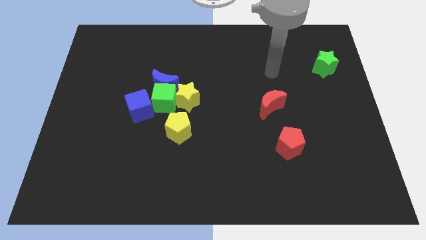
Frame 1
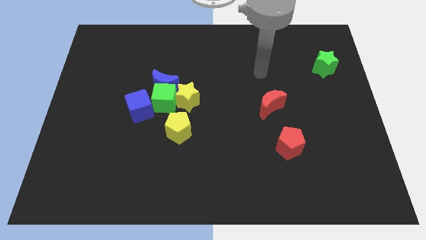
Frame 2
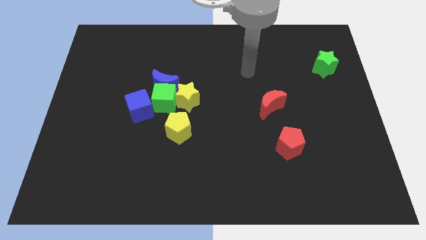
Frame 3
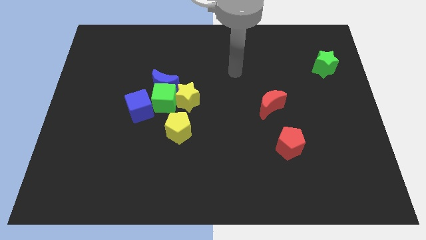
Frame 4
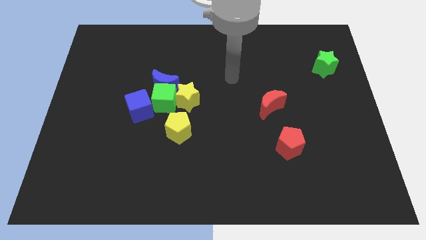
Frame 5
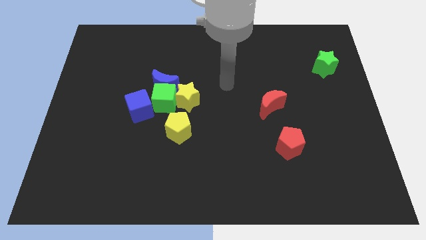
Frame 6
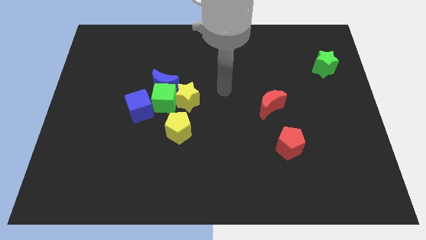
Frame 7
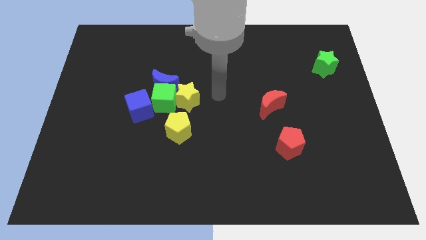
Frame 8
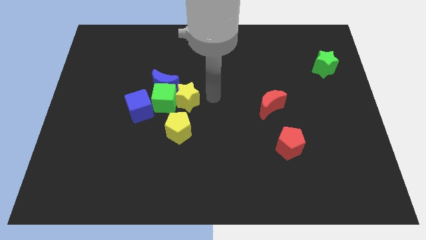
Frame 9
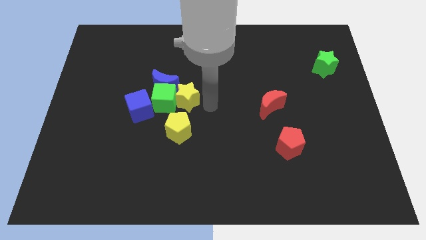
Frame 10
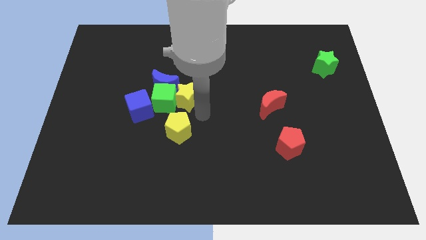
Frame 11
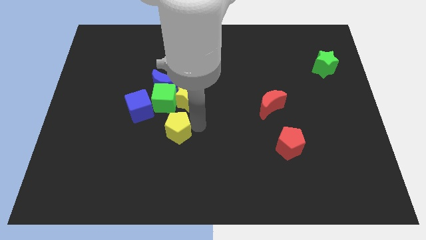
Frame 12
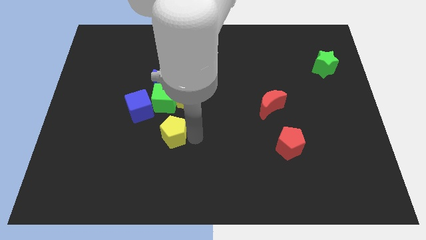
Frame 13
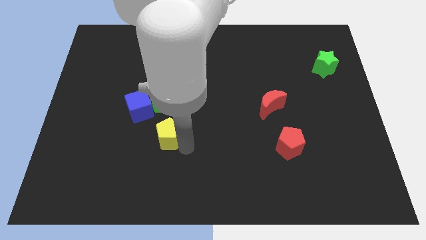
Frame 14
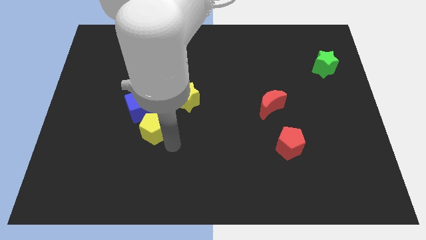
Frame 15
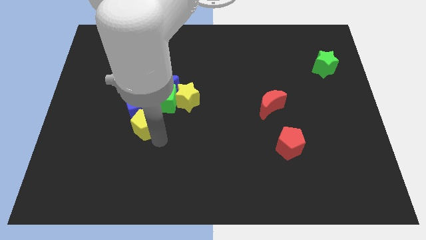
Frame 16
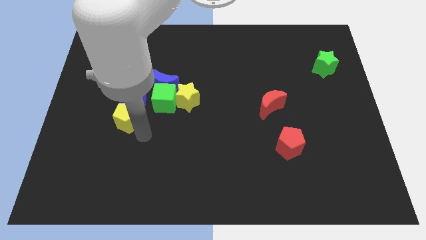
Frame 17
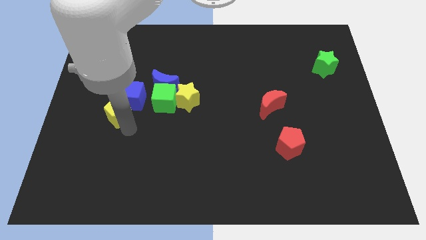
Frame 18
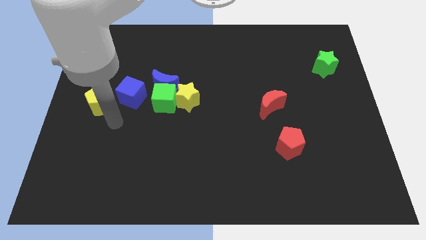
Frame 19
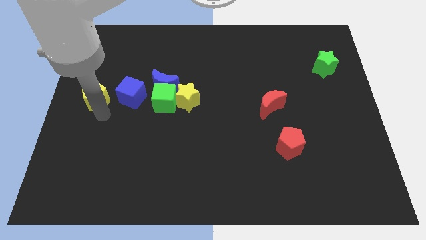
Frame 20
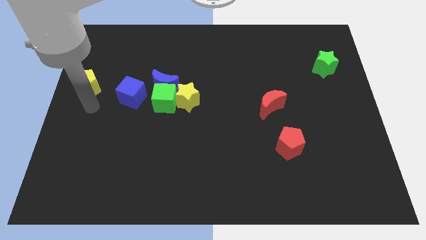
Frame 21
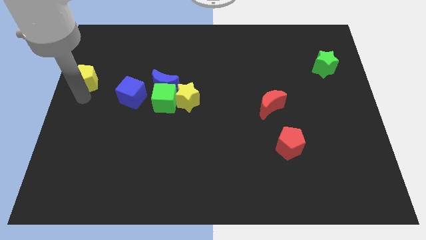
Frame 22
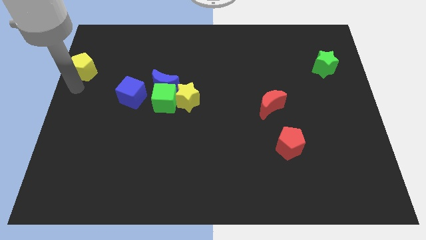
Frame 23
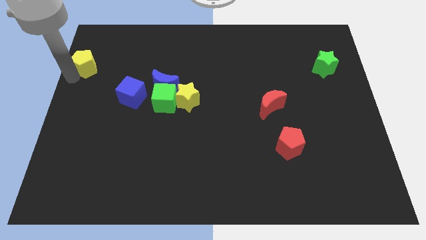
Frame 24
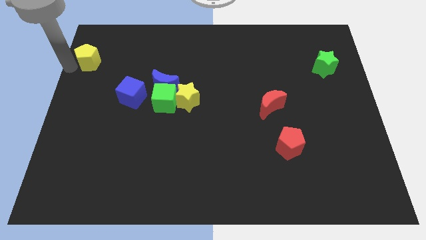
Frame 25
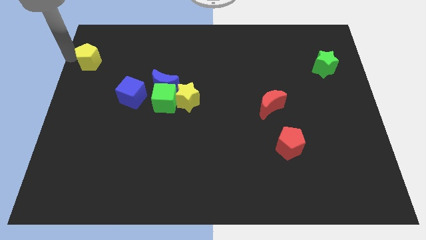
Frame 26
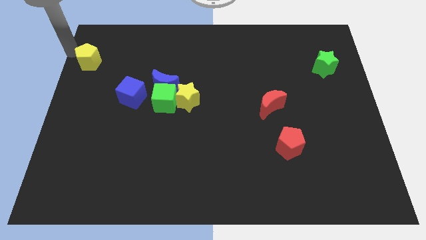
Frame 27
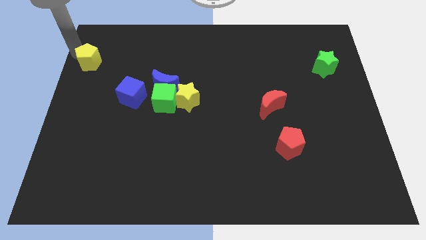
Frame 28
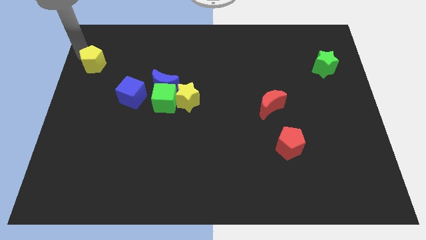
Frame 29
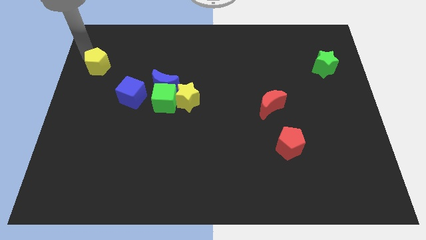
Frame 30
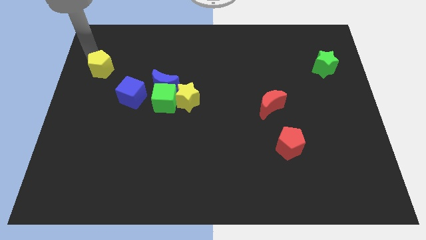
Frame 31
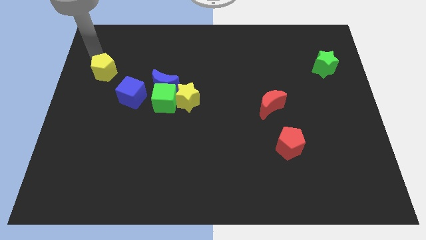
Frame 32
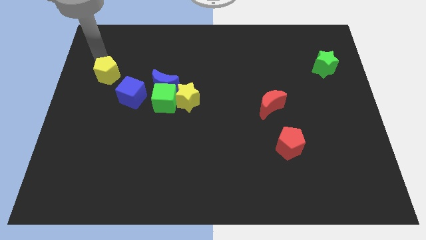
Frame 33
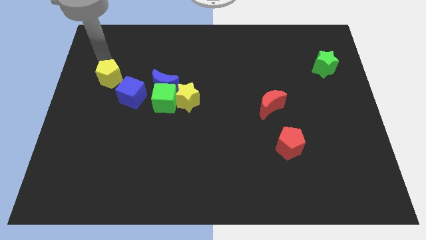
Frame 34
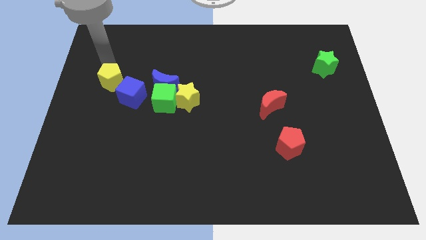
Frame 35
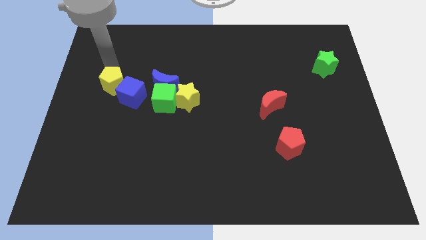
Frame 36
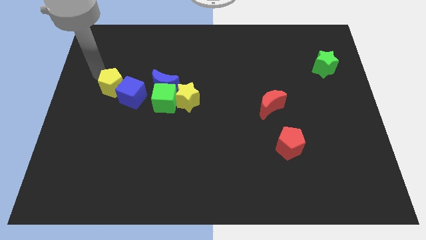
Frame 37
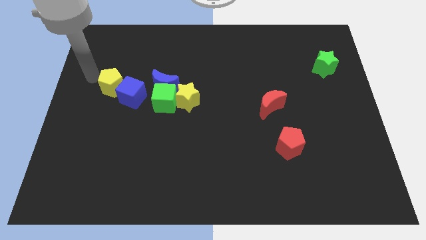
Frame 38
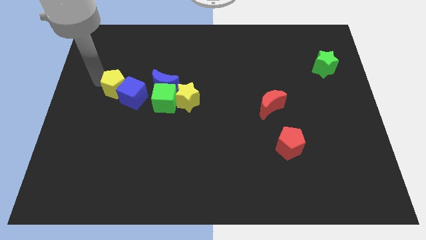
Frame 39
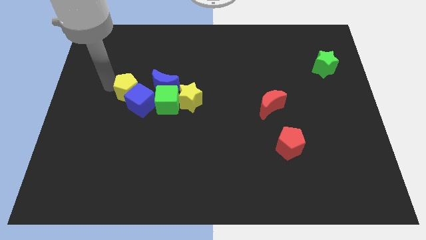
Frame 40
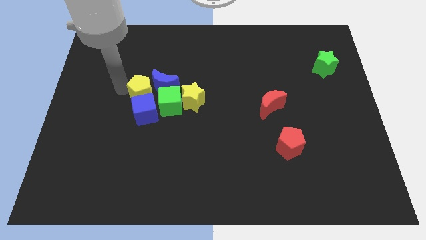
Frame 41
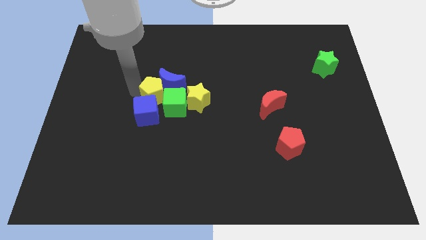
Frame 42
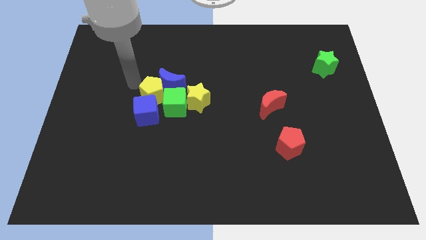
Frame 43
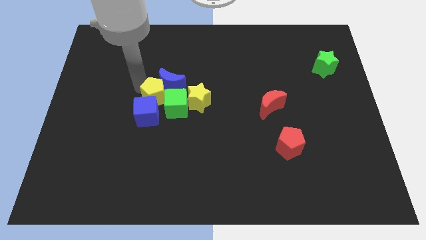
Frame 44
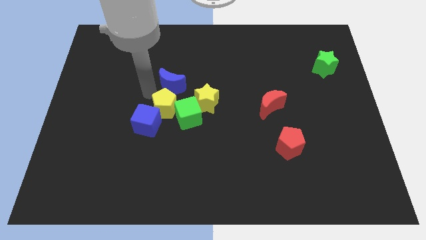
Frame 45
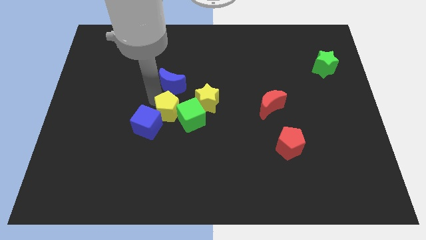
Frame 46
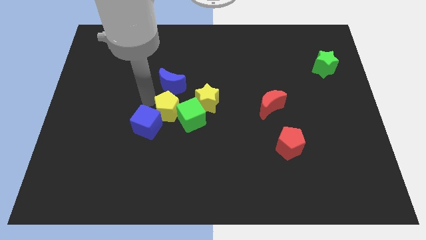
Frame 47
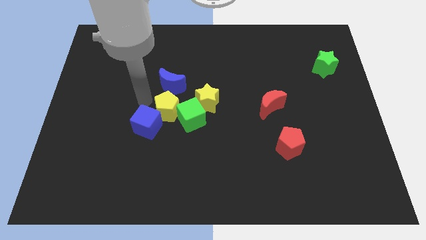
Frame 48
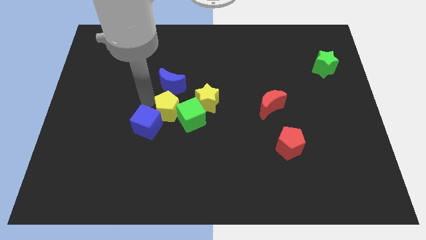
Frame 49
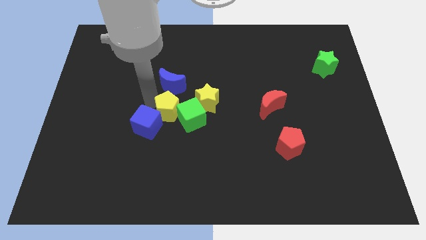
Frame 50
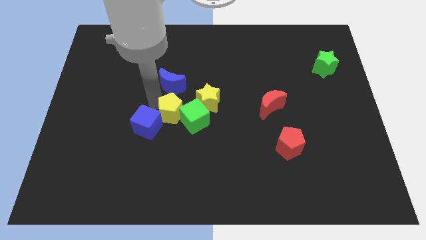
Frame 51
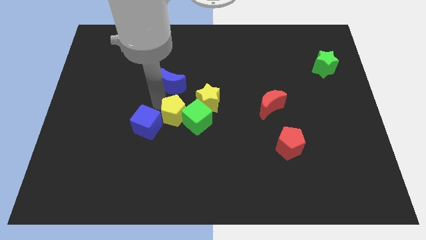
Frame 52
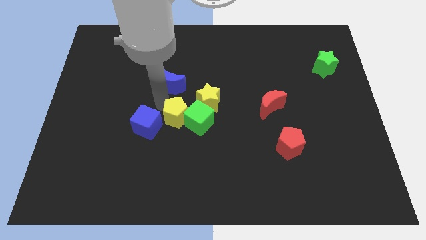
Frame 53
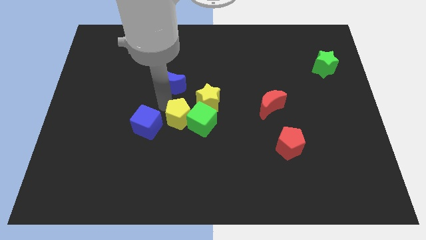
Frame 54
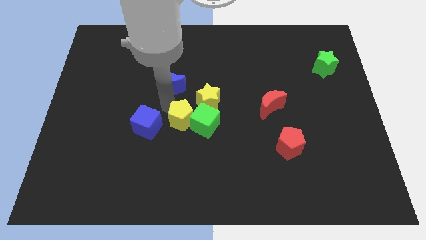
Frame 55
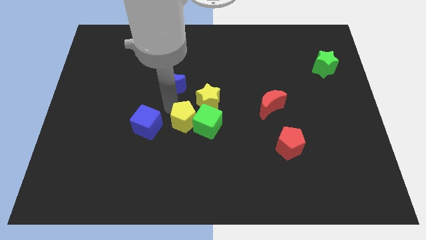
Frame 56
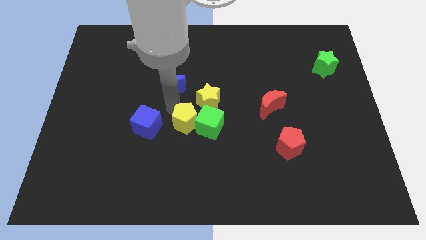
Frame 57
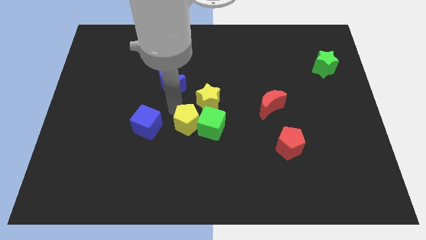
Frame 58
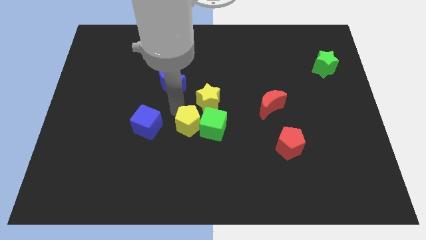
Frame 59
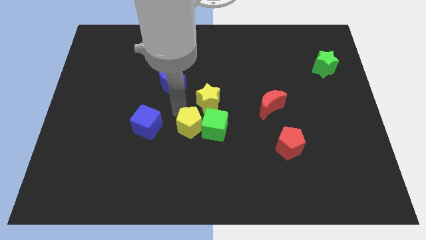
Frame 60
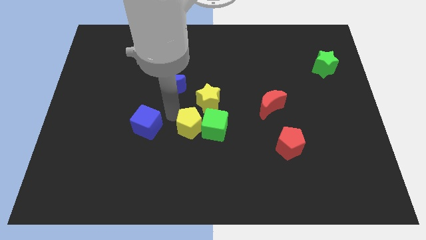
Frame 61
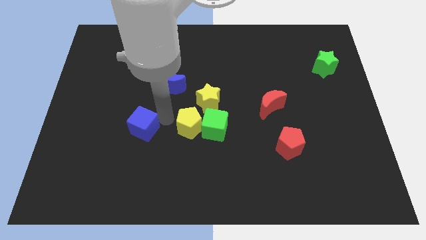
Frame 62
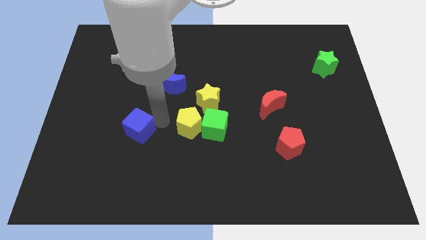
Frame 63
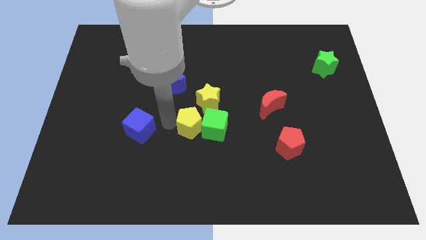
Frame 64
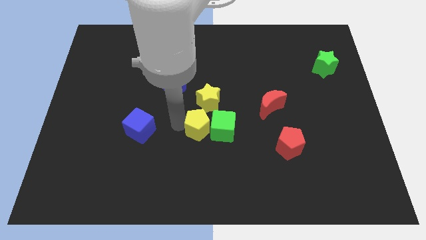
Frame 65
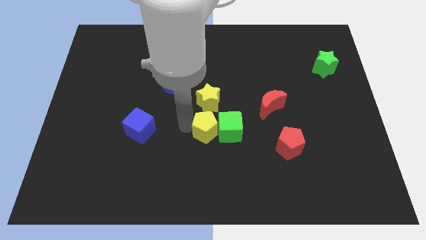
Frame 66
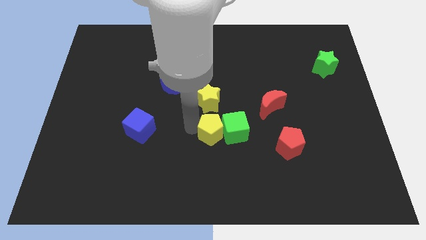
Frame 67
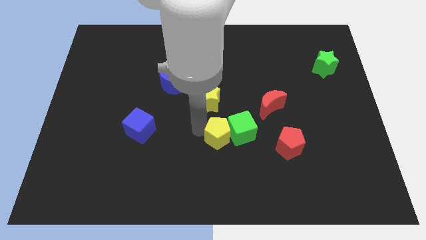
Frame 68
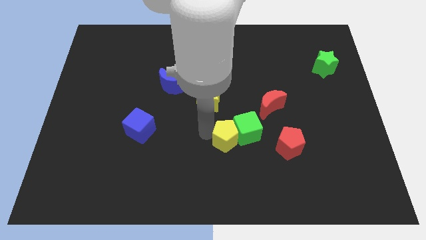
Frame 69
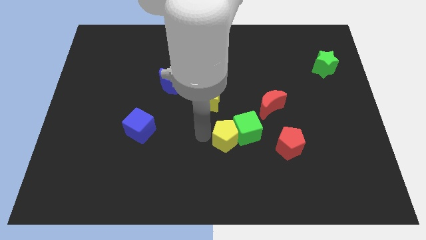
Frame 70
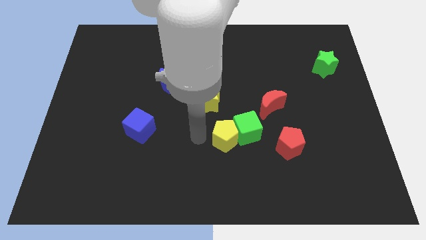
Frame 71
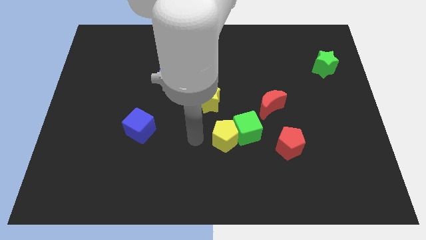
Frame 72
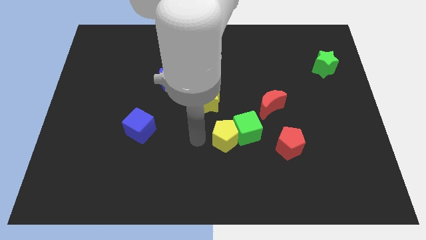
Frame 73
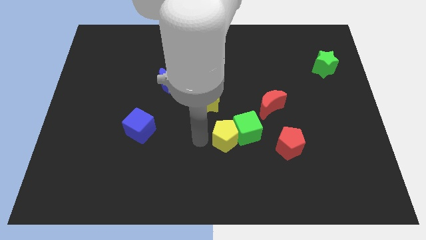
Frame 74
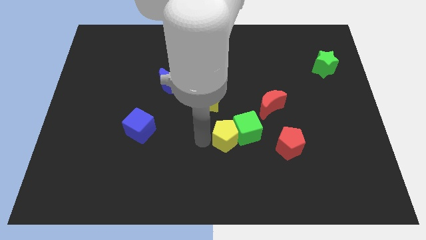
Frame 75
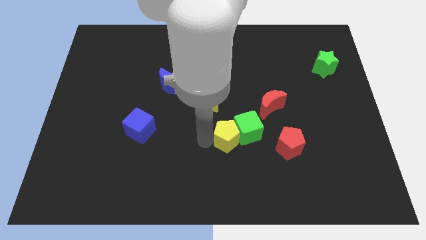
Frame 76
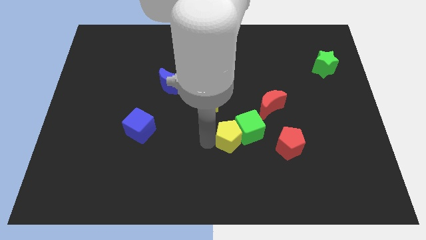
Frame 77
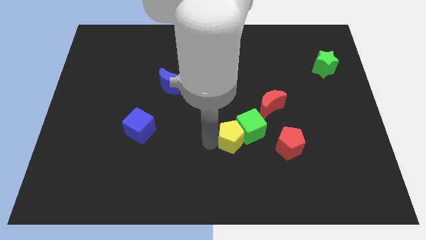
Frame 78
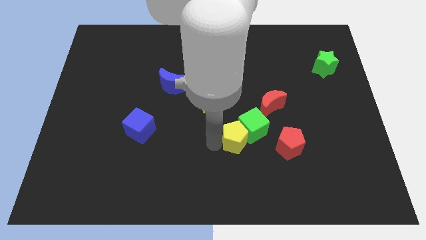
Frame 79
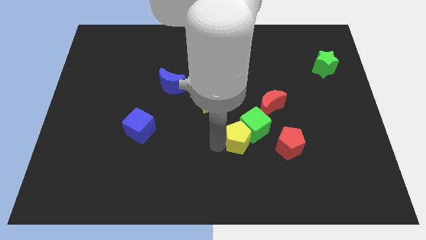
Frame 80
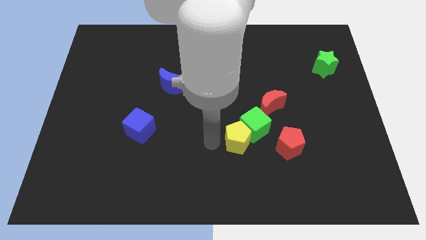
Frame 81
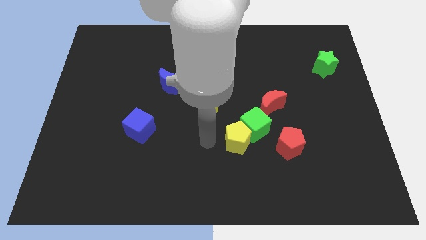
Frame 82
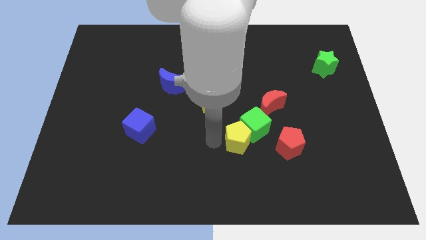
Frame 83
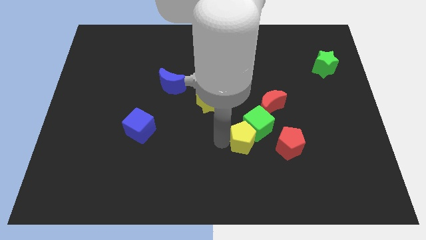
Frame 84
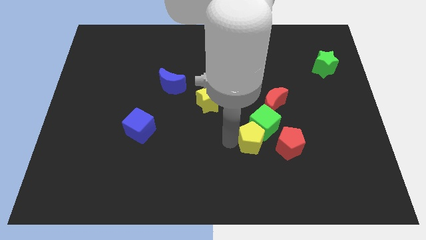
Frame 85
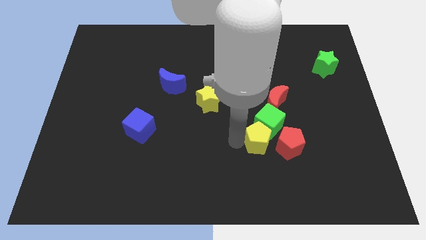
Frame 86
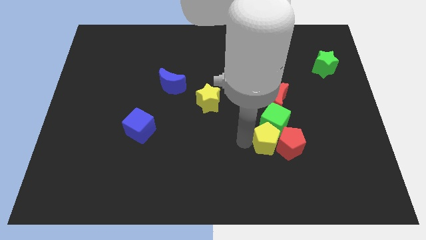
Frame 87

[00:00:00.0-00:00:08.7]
move the yellow pentagon towards the red pentagon
